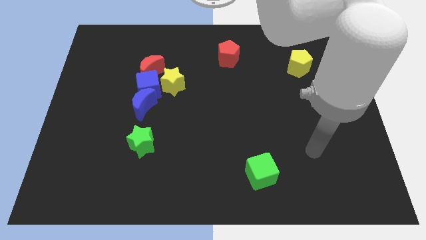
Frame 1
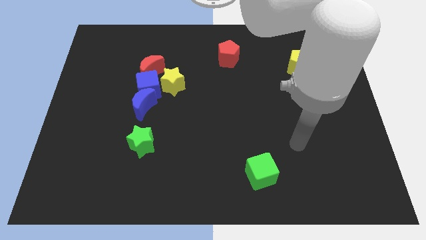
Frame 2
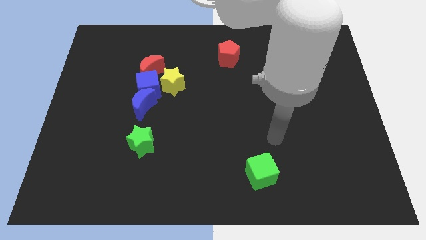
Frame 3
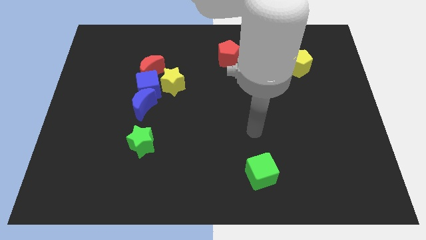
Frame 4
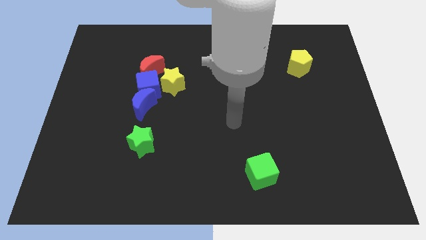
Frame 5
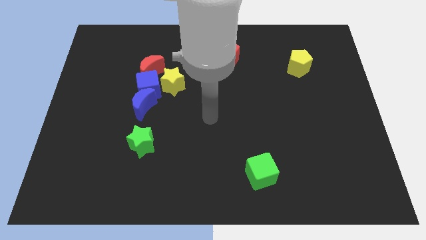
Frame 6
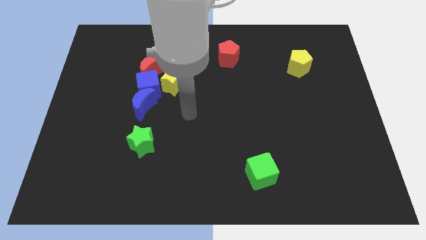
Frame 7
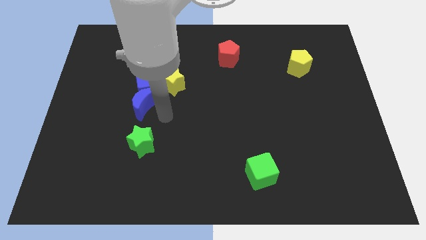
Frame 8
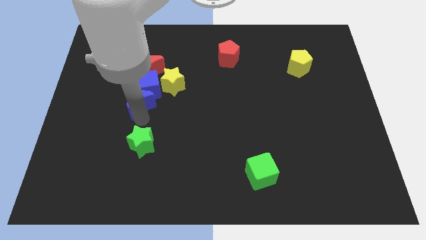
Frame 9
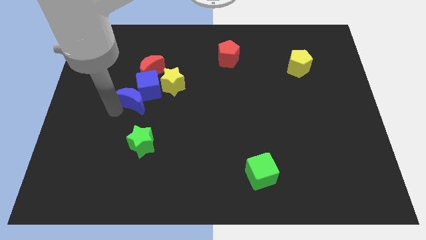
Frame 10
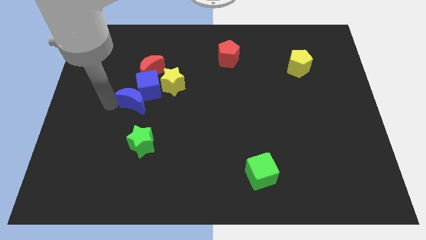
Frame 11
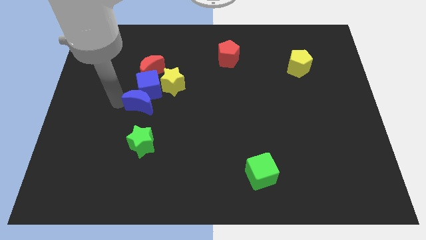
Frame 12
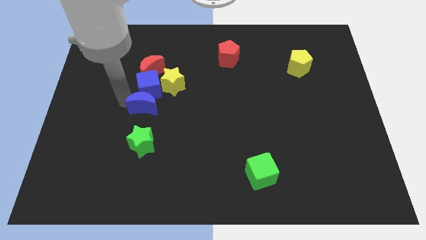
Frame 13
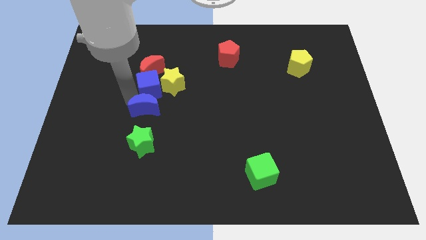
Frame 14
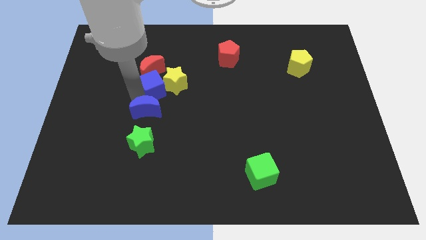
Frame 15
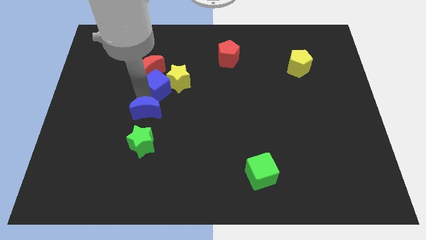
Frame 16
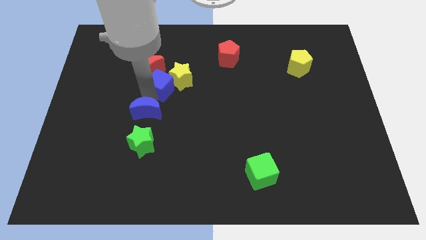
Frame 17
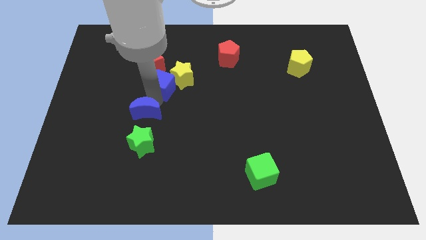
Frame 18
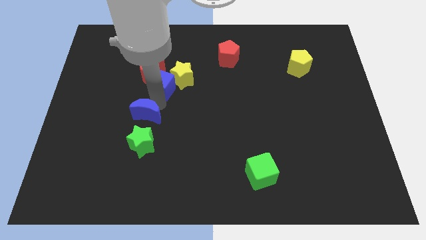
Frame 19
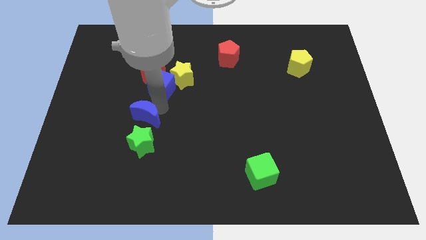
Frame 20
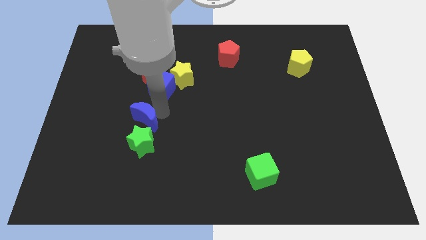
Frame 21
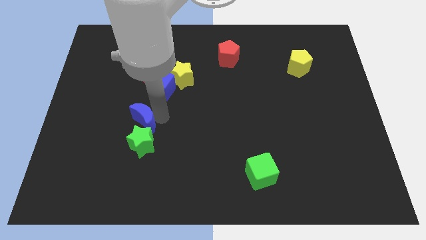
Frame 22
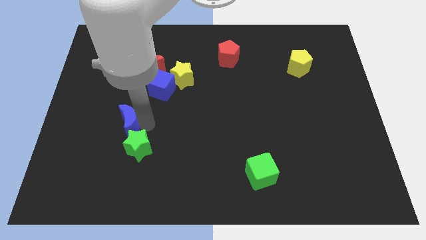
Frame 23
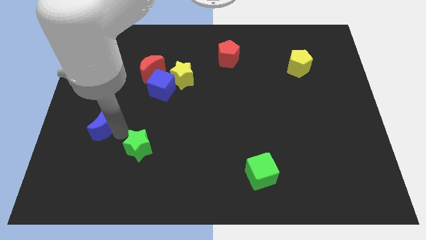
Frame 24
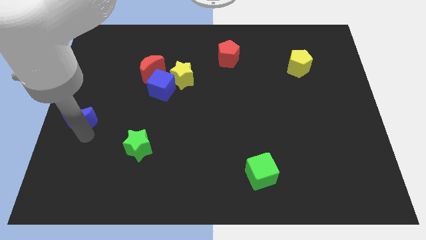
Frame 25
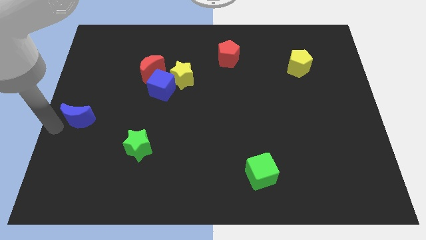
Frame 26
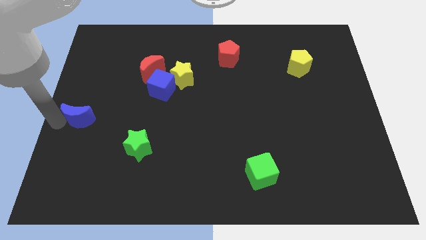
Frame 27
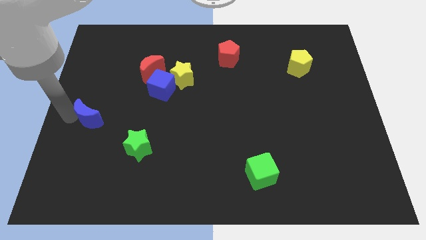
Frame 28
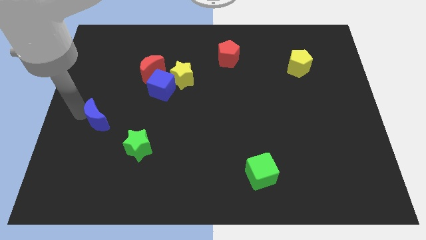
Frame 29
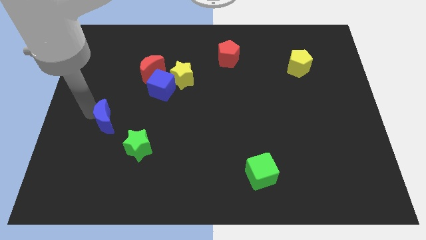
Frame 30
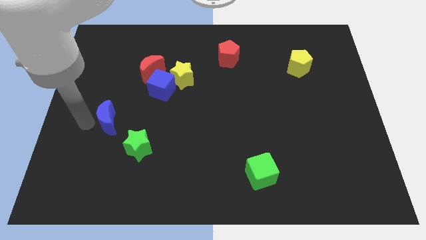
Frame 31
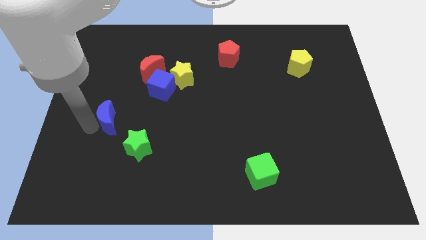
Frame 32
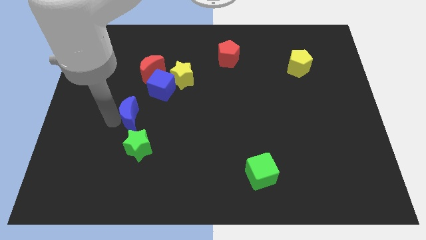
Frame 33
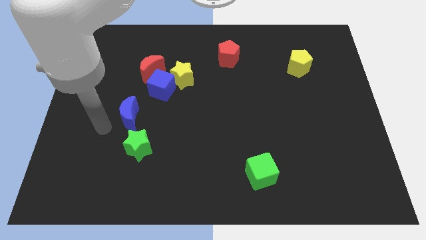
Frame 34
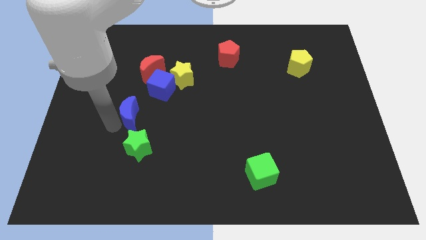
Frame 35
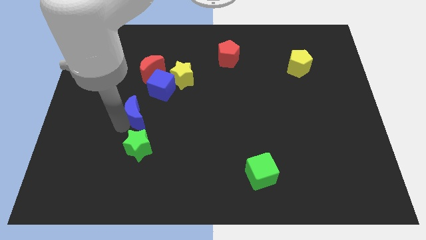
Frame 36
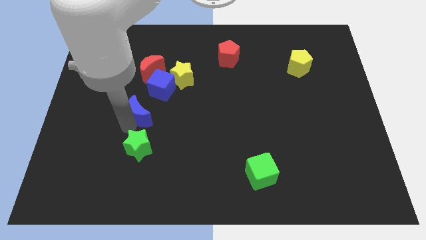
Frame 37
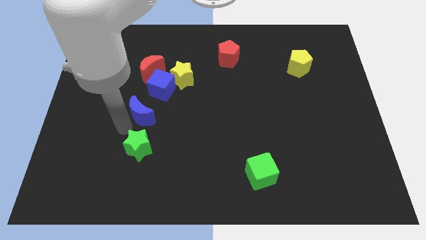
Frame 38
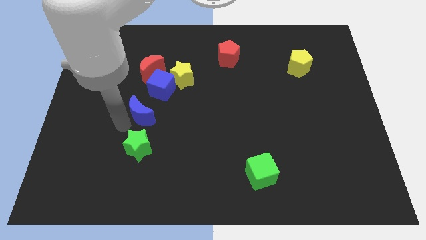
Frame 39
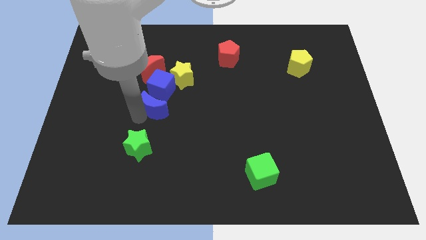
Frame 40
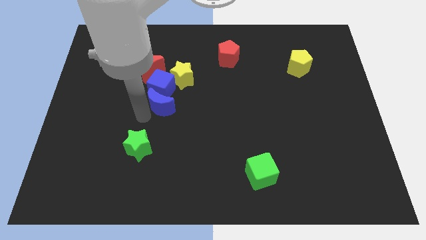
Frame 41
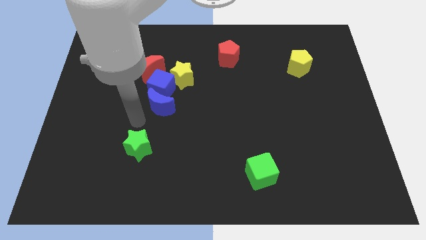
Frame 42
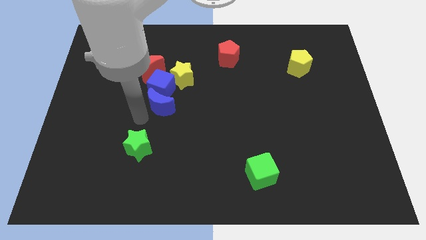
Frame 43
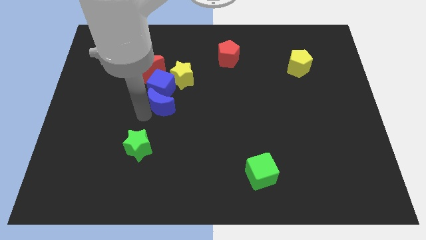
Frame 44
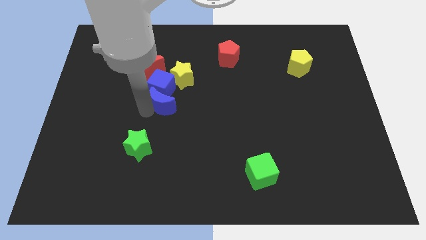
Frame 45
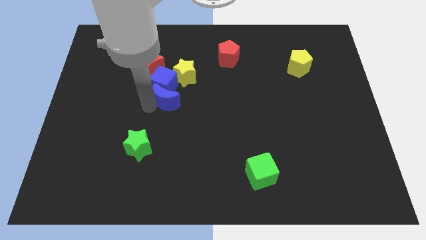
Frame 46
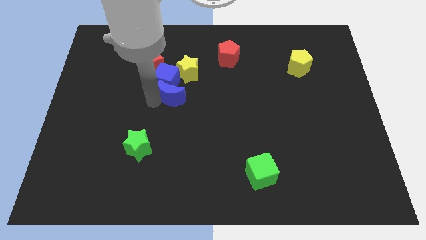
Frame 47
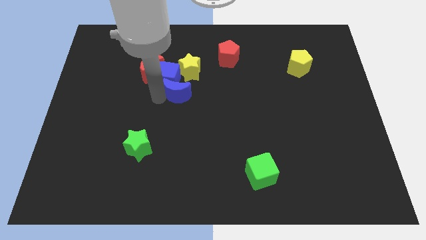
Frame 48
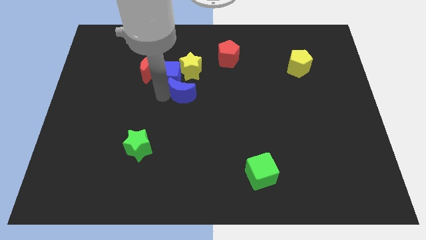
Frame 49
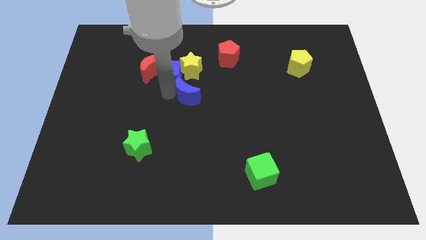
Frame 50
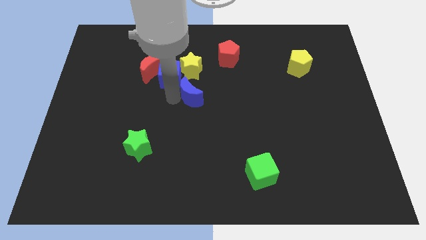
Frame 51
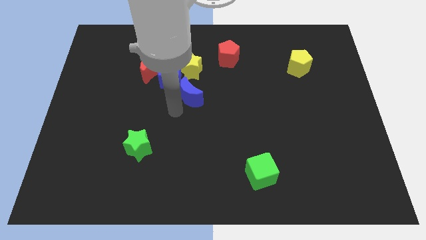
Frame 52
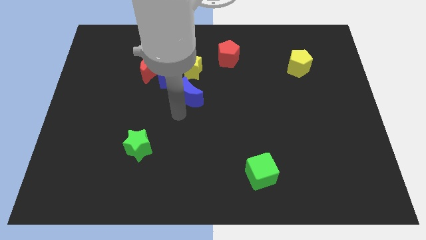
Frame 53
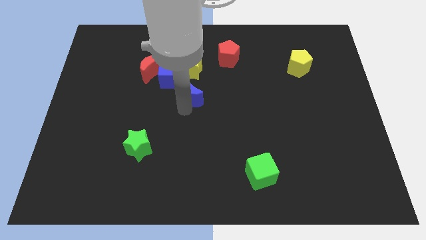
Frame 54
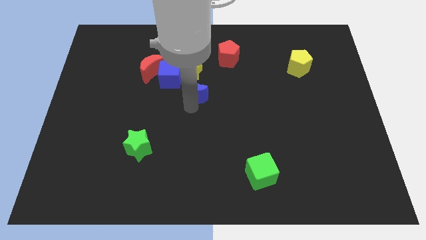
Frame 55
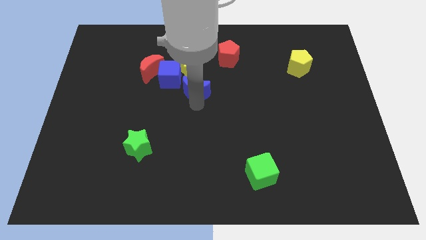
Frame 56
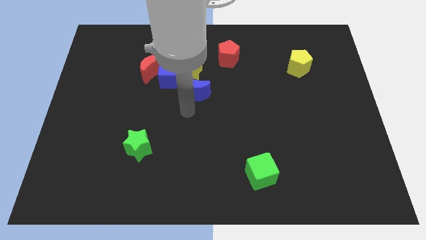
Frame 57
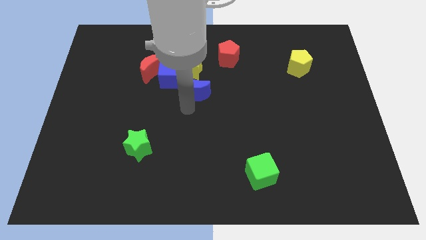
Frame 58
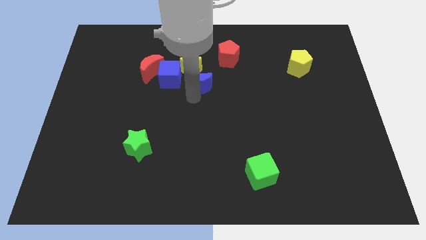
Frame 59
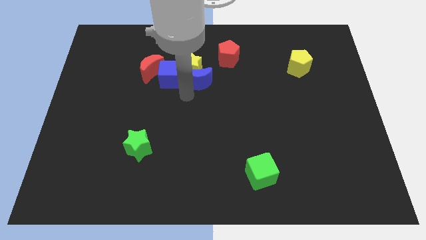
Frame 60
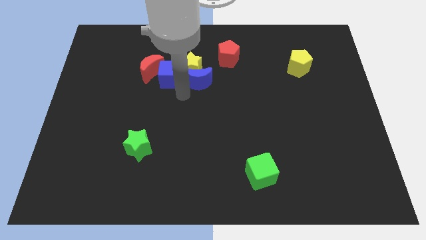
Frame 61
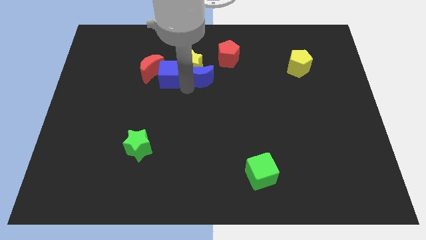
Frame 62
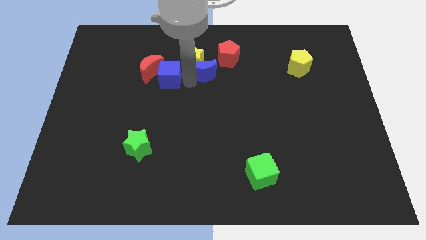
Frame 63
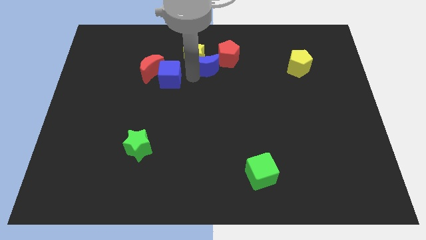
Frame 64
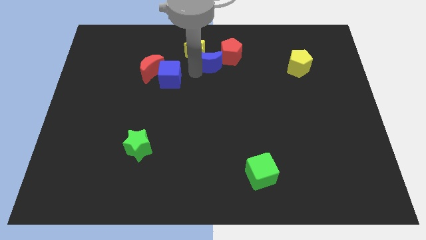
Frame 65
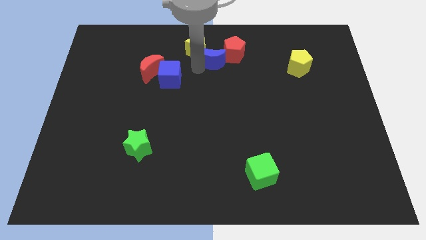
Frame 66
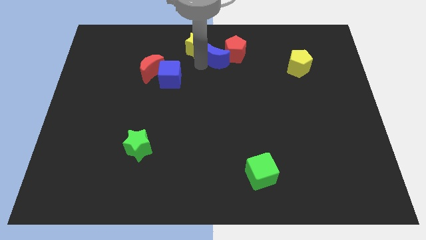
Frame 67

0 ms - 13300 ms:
slide the blue moon to the red pentagon

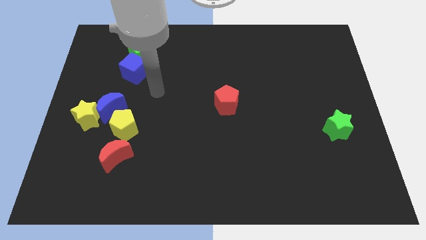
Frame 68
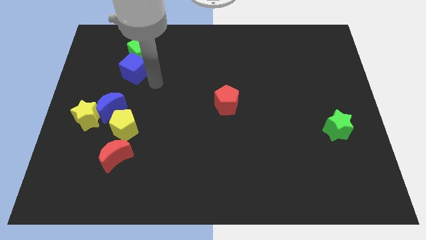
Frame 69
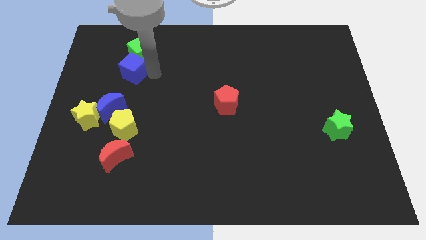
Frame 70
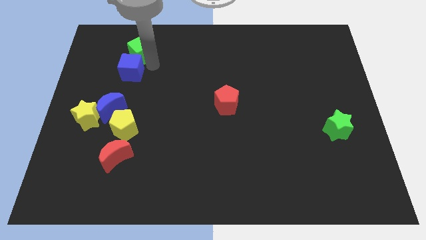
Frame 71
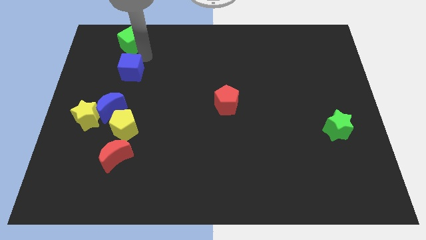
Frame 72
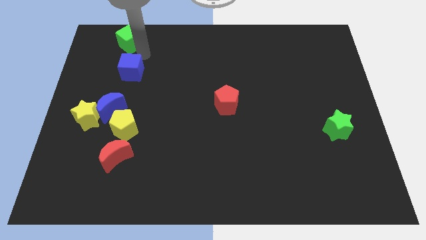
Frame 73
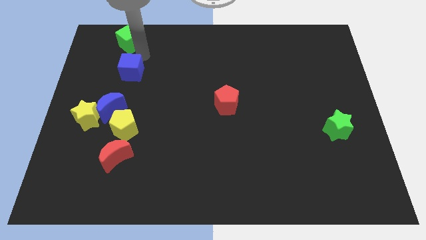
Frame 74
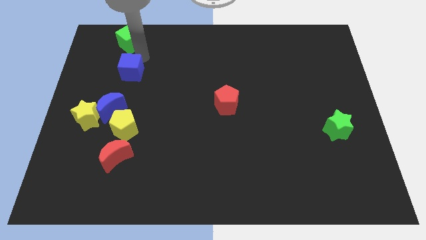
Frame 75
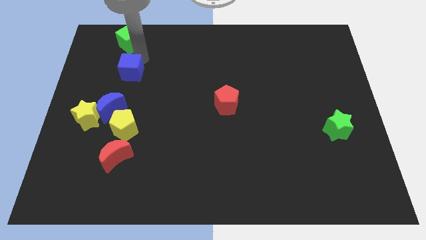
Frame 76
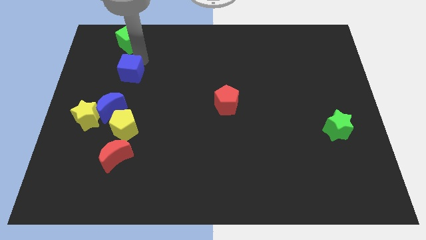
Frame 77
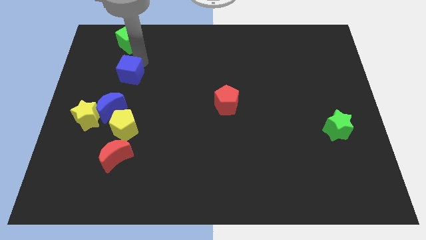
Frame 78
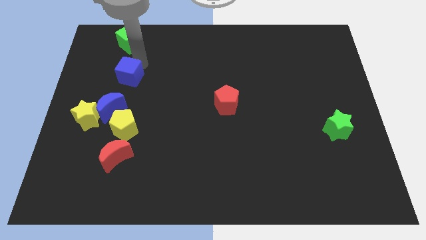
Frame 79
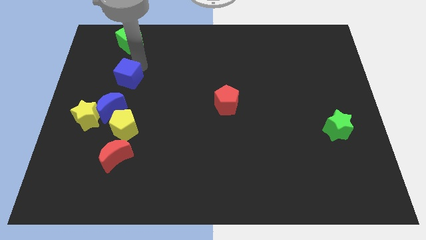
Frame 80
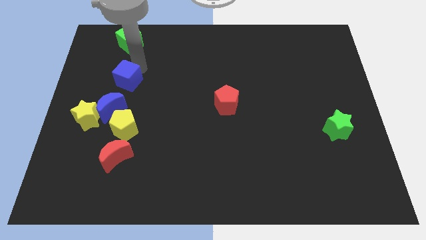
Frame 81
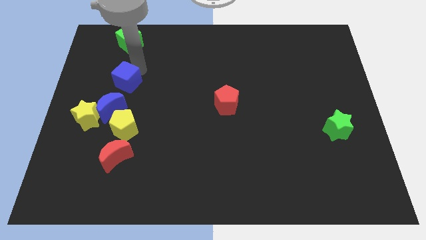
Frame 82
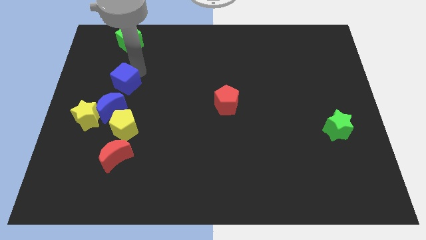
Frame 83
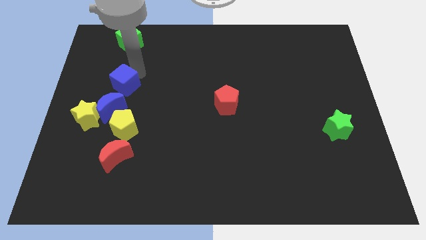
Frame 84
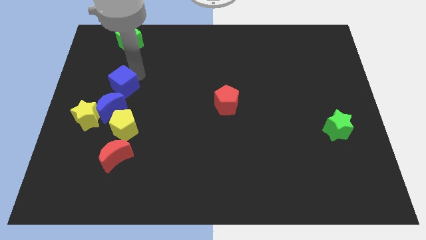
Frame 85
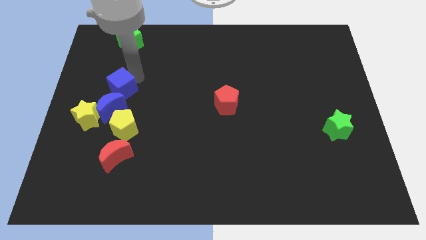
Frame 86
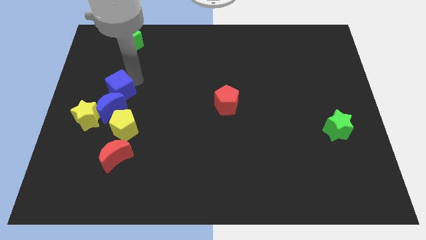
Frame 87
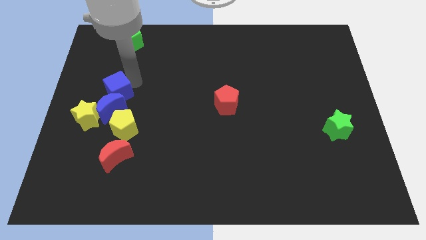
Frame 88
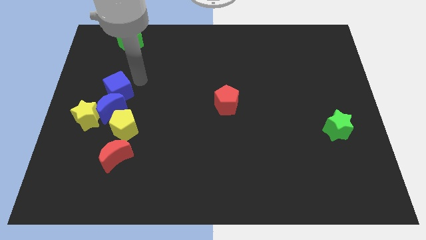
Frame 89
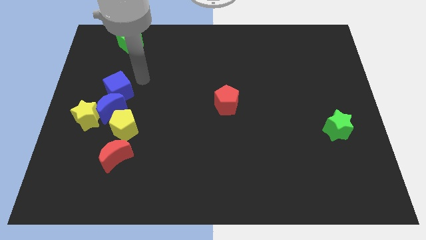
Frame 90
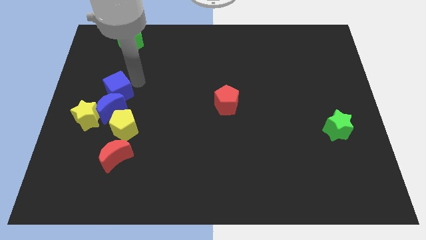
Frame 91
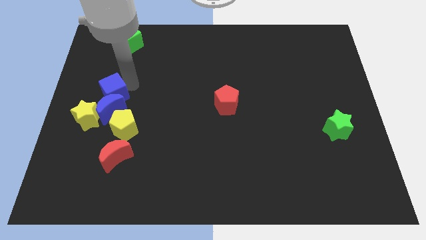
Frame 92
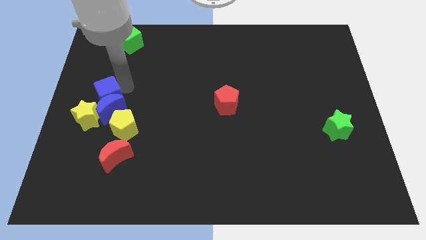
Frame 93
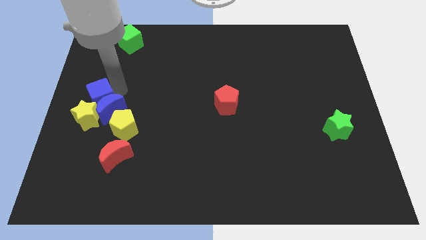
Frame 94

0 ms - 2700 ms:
push the blue cube to the yellow star
